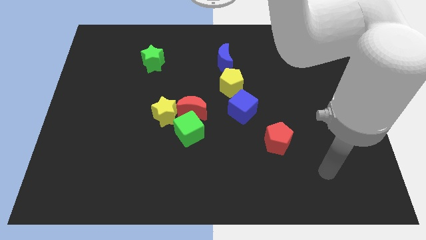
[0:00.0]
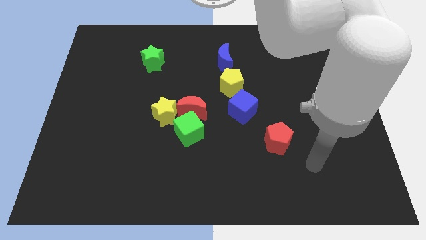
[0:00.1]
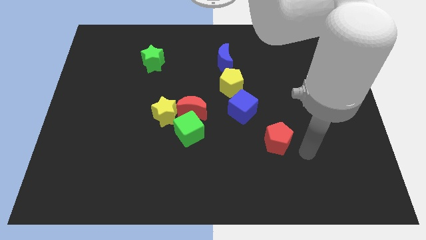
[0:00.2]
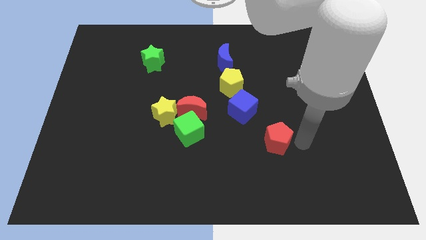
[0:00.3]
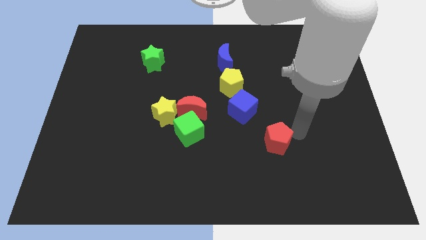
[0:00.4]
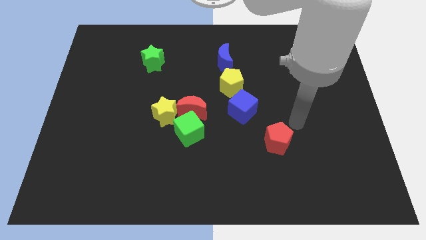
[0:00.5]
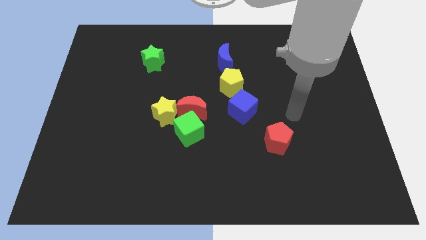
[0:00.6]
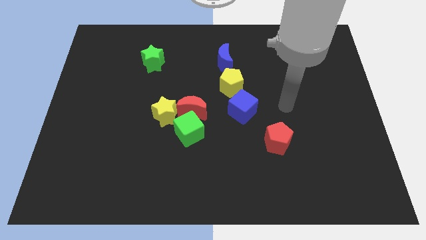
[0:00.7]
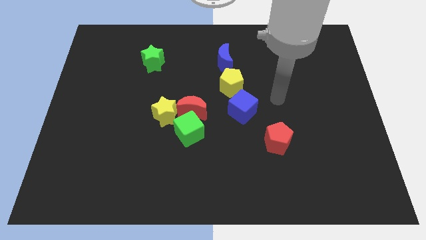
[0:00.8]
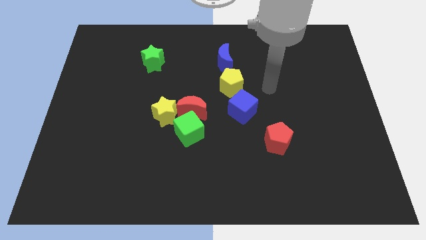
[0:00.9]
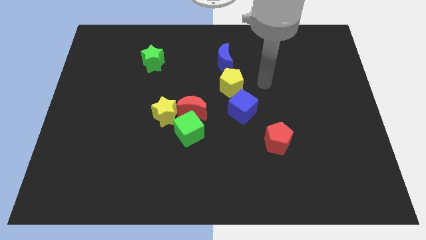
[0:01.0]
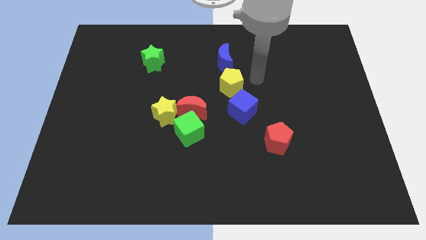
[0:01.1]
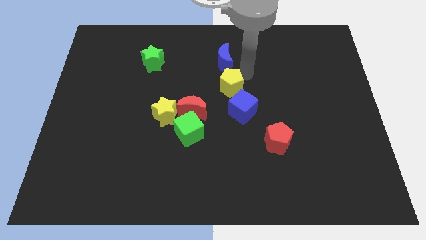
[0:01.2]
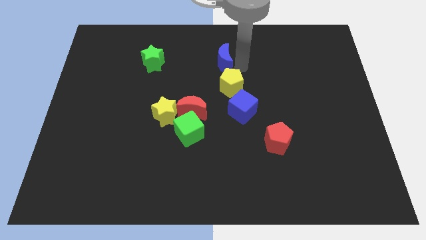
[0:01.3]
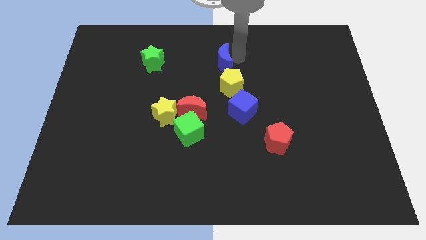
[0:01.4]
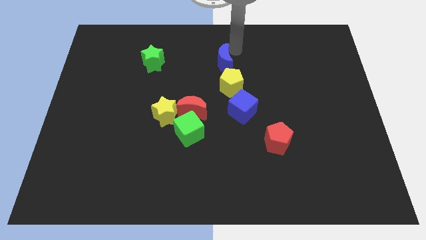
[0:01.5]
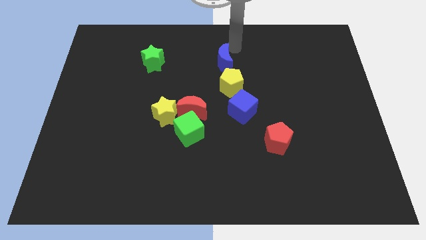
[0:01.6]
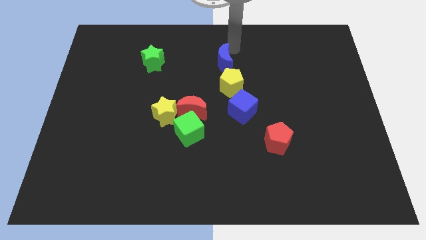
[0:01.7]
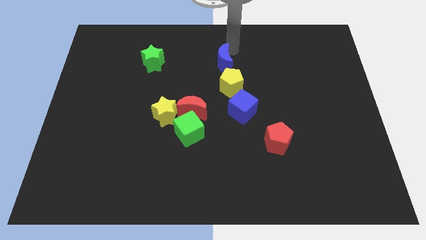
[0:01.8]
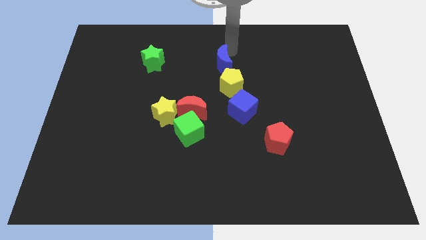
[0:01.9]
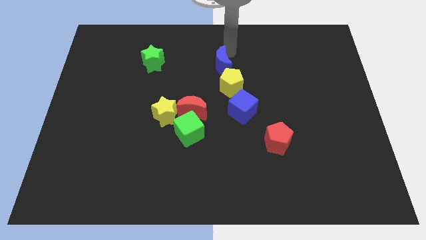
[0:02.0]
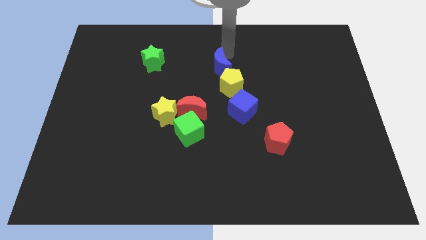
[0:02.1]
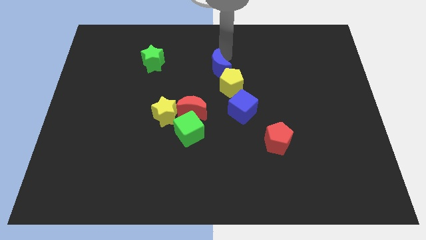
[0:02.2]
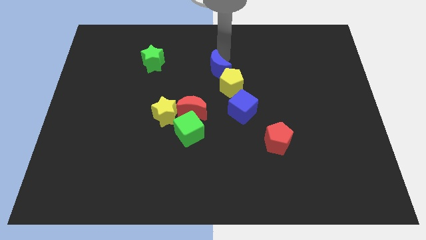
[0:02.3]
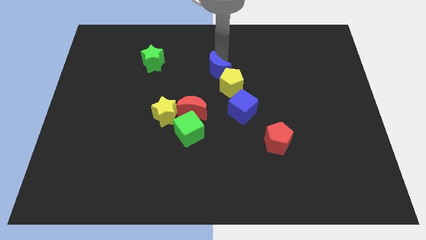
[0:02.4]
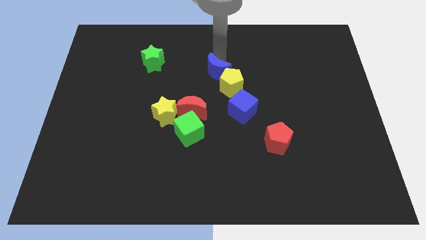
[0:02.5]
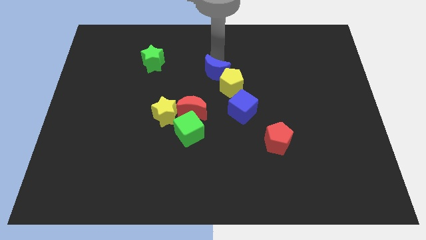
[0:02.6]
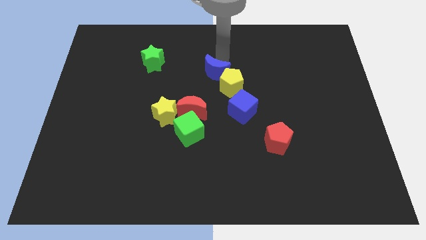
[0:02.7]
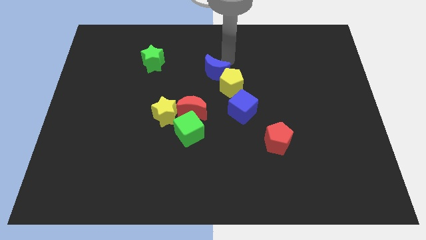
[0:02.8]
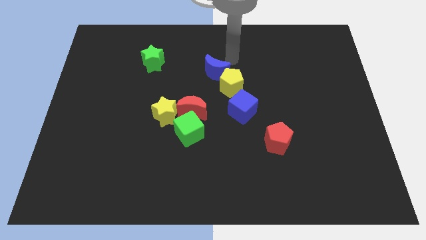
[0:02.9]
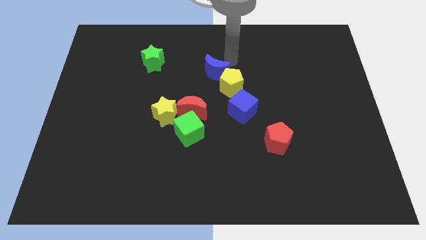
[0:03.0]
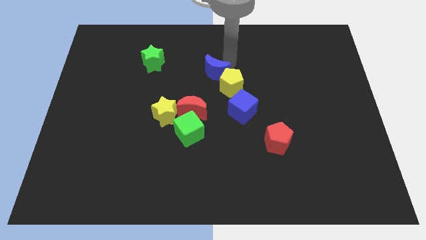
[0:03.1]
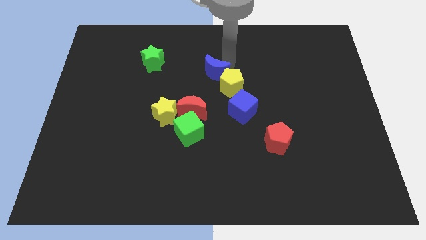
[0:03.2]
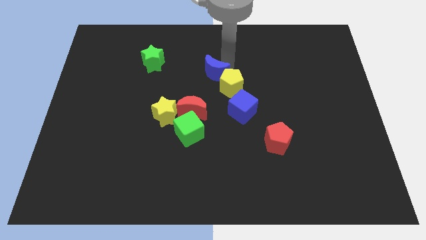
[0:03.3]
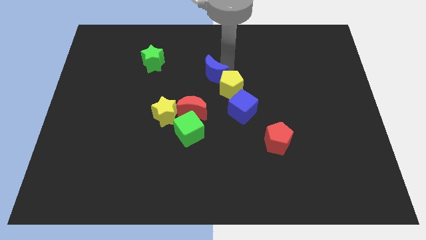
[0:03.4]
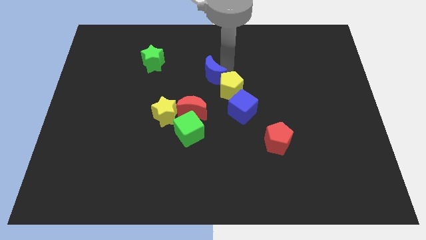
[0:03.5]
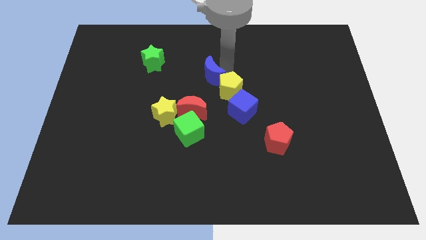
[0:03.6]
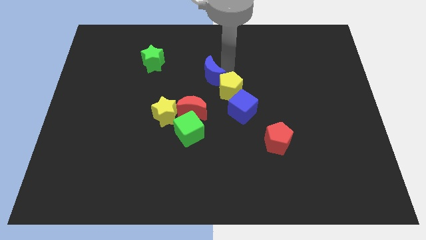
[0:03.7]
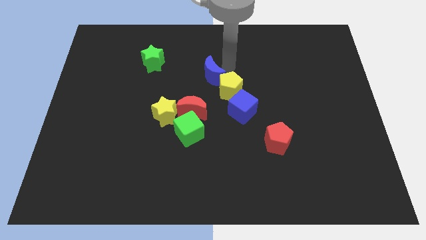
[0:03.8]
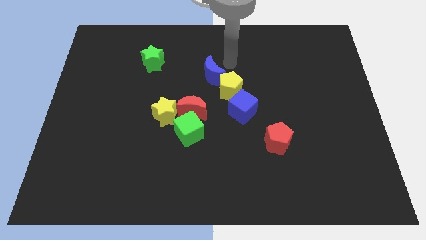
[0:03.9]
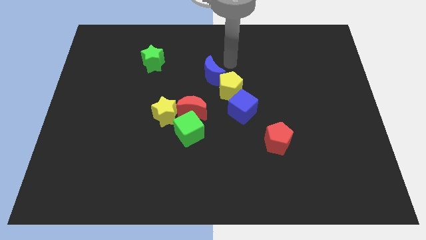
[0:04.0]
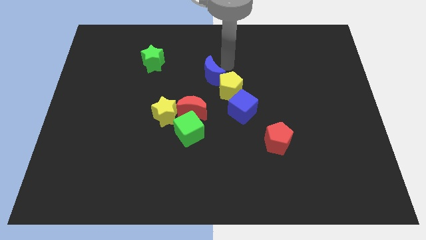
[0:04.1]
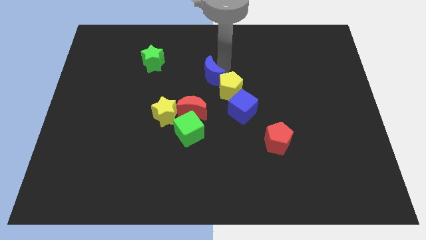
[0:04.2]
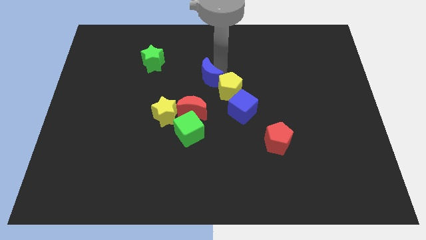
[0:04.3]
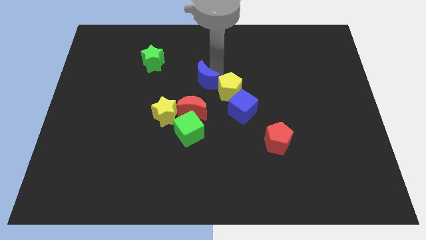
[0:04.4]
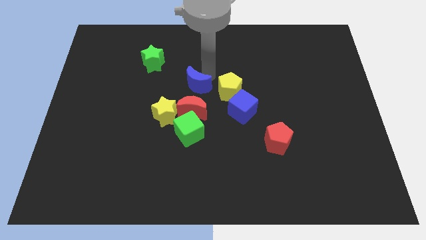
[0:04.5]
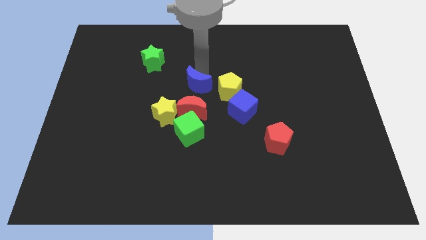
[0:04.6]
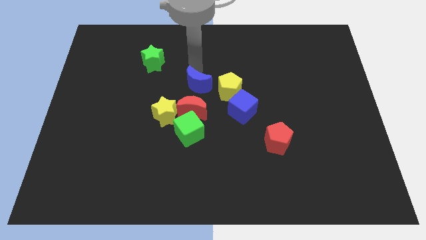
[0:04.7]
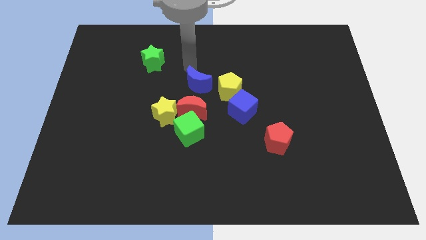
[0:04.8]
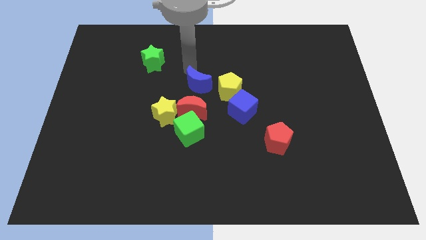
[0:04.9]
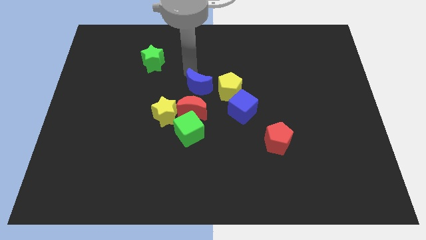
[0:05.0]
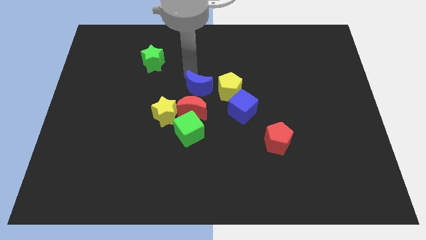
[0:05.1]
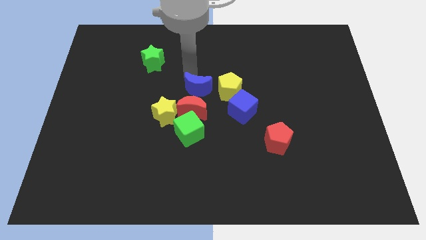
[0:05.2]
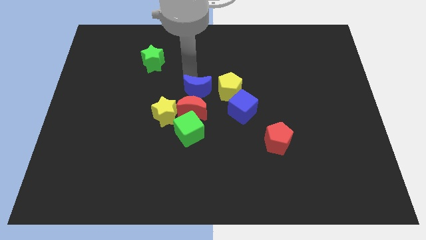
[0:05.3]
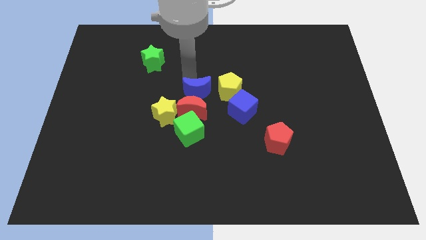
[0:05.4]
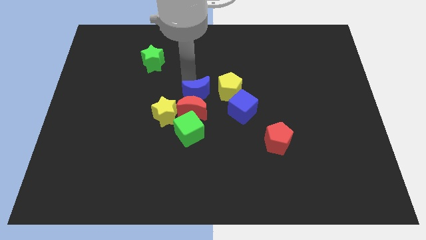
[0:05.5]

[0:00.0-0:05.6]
slide the blue moon diagonally down and to the left of the yellow pentagon

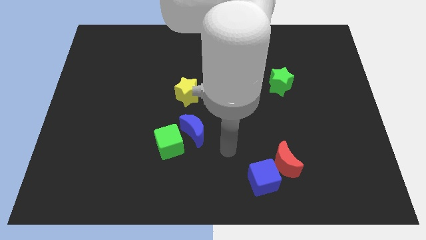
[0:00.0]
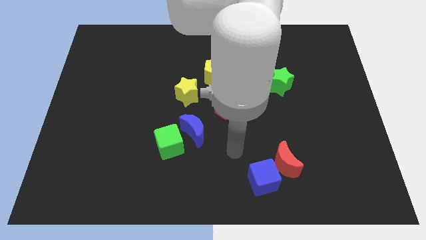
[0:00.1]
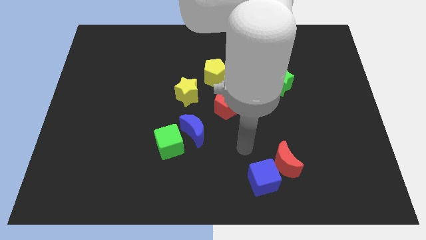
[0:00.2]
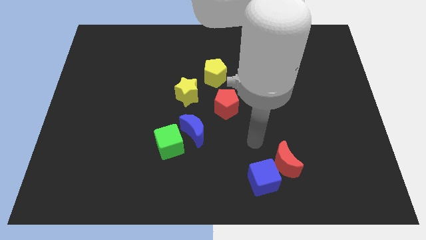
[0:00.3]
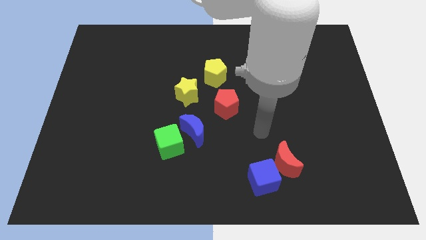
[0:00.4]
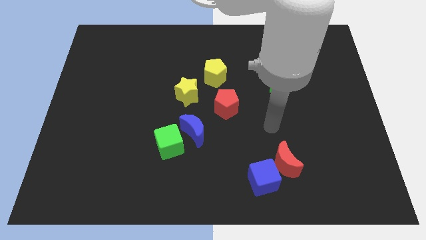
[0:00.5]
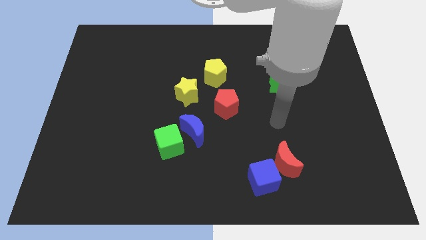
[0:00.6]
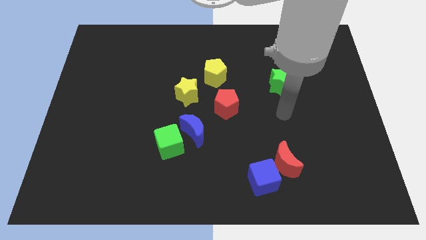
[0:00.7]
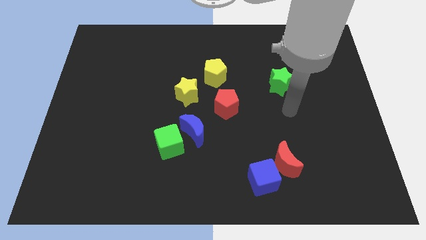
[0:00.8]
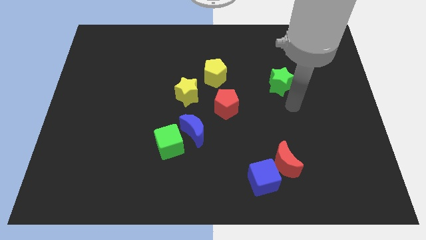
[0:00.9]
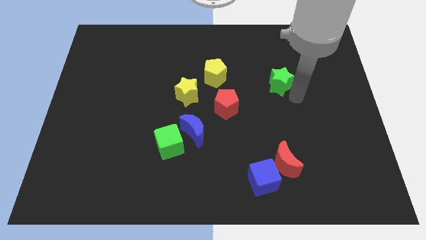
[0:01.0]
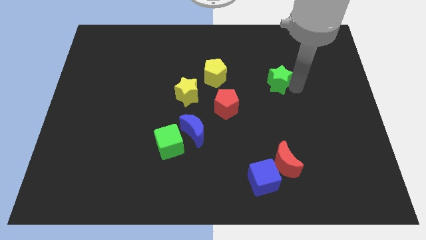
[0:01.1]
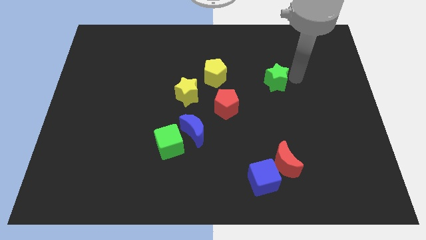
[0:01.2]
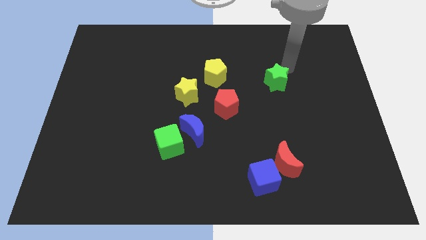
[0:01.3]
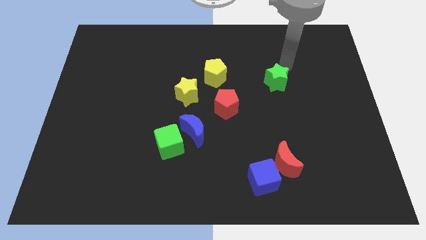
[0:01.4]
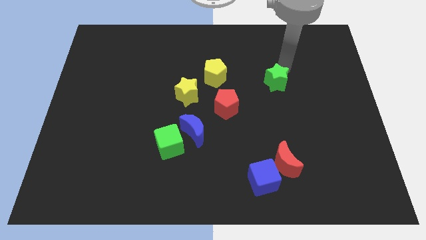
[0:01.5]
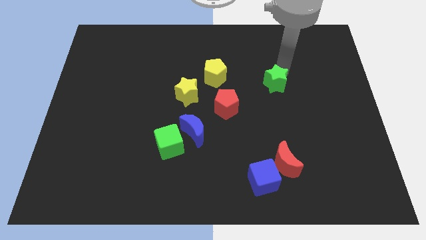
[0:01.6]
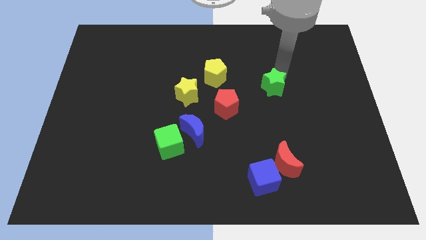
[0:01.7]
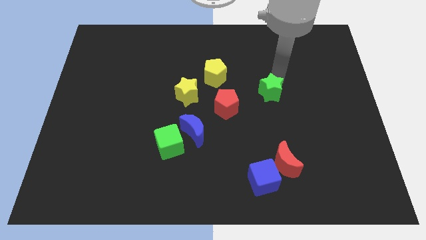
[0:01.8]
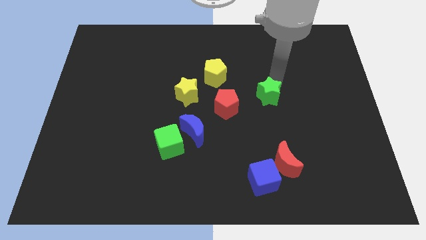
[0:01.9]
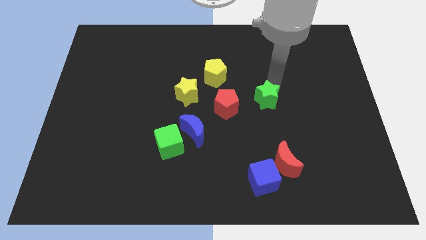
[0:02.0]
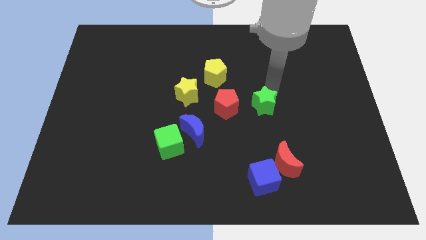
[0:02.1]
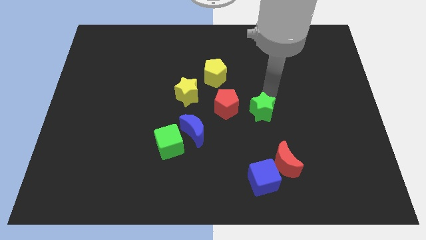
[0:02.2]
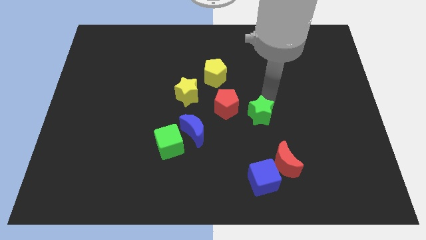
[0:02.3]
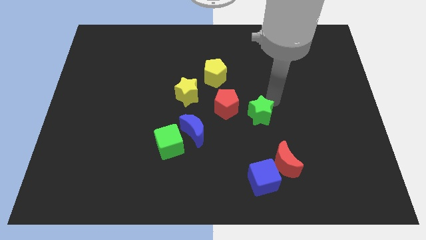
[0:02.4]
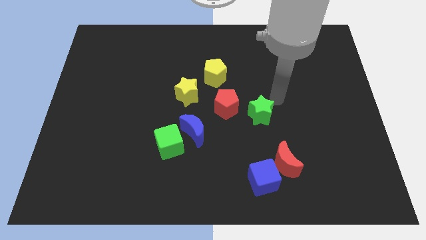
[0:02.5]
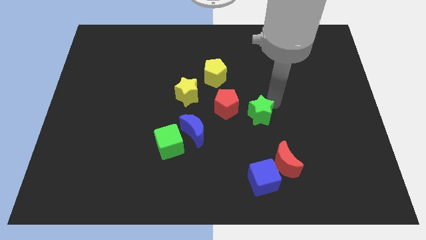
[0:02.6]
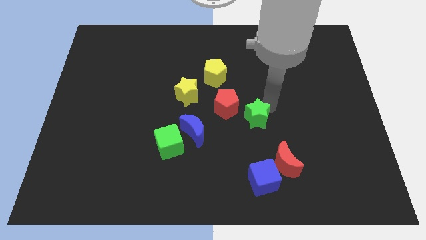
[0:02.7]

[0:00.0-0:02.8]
push the green star right of the blue moon
